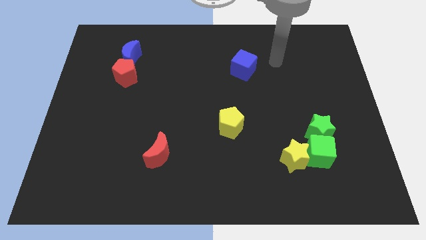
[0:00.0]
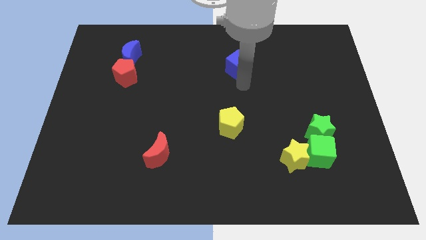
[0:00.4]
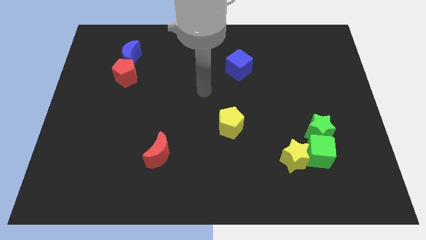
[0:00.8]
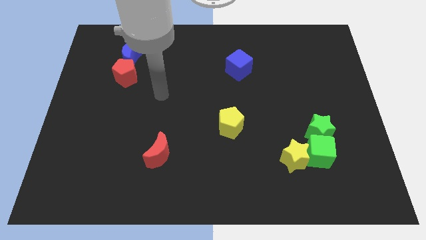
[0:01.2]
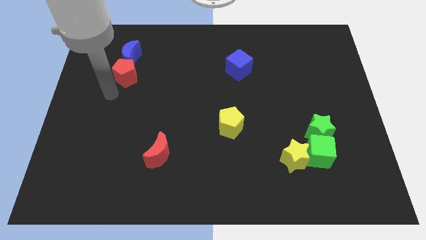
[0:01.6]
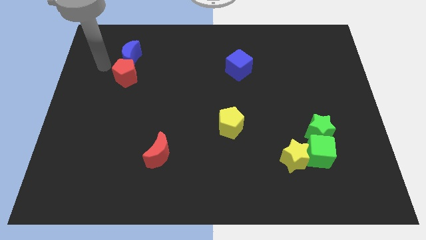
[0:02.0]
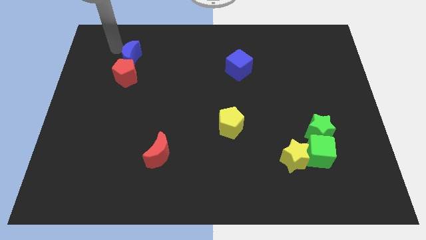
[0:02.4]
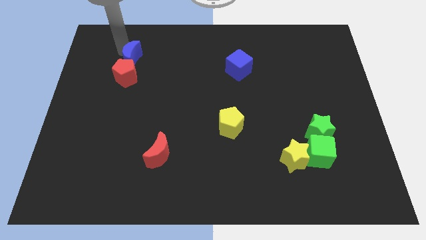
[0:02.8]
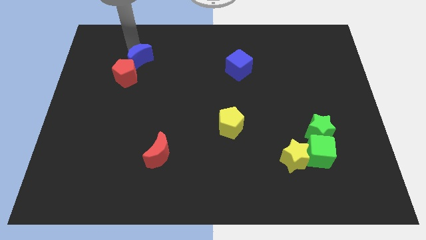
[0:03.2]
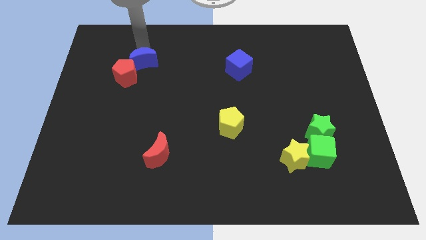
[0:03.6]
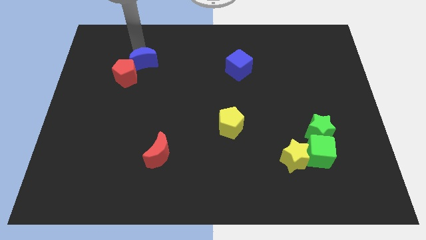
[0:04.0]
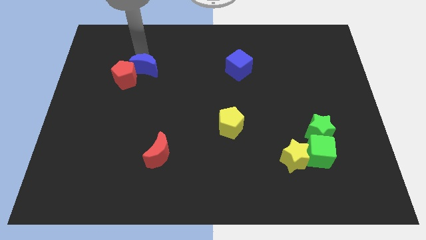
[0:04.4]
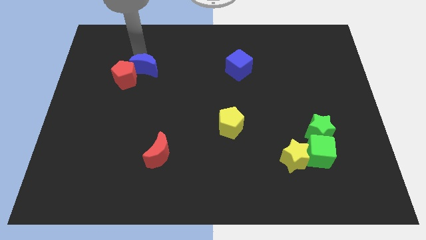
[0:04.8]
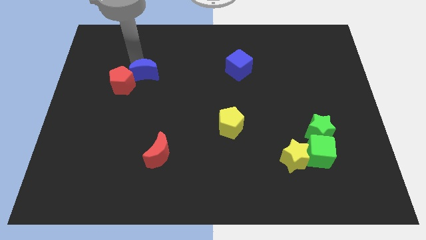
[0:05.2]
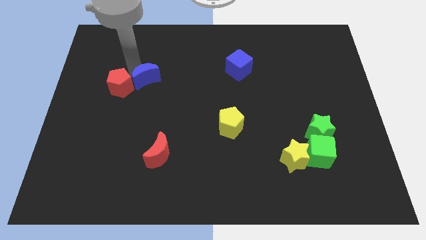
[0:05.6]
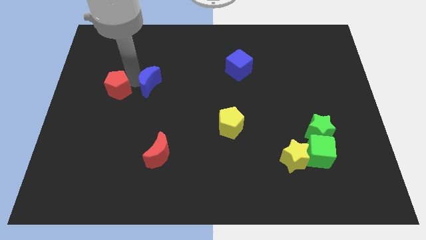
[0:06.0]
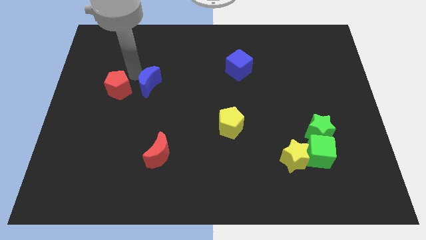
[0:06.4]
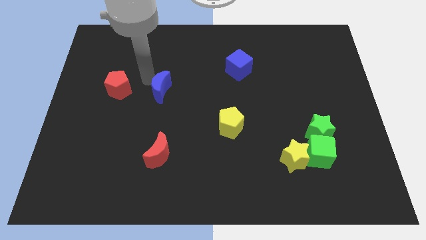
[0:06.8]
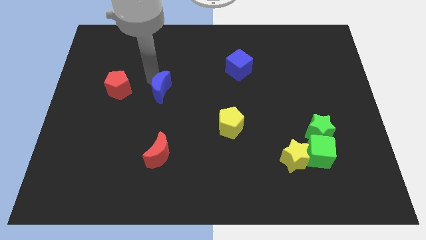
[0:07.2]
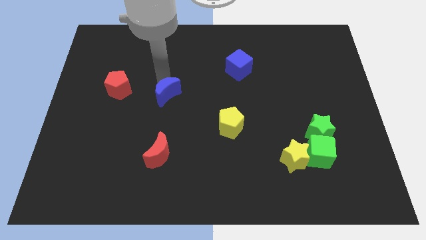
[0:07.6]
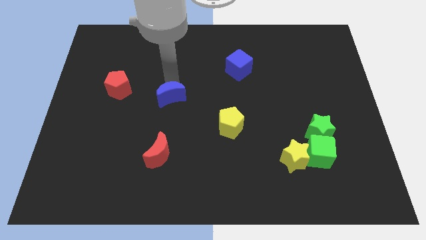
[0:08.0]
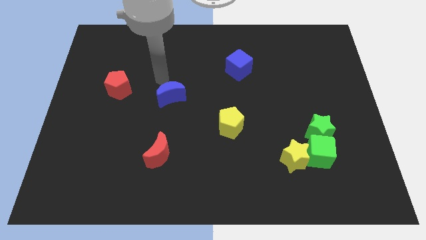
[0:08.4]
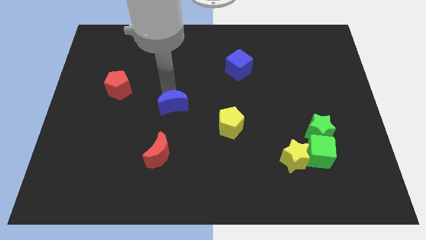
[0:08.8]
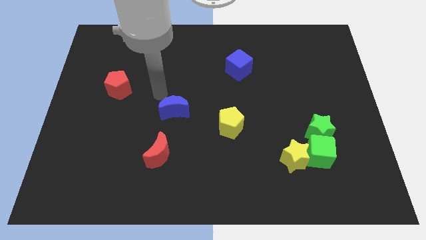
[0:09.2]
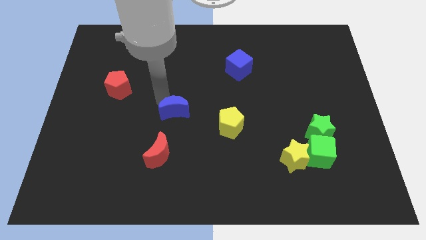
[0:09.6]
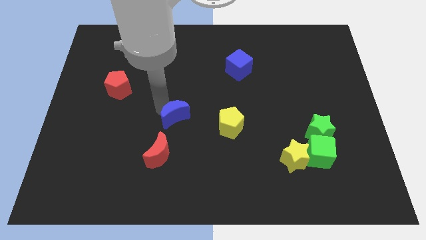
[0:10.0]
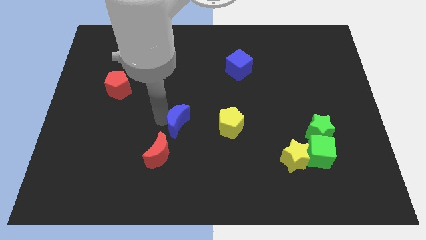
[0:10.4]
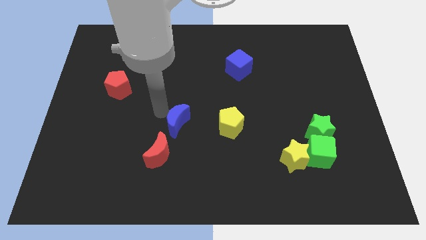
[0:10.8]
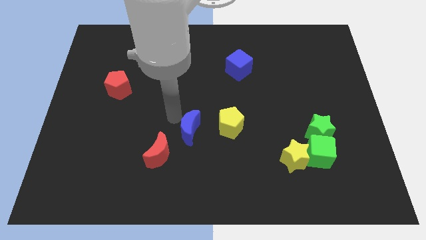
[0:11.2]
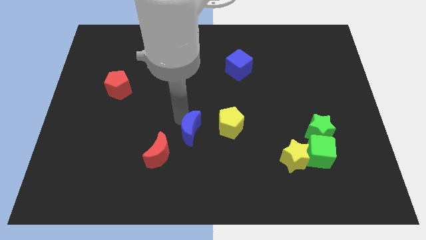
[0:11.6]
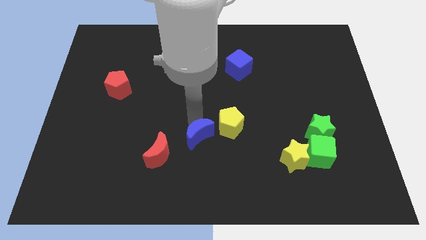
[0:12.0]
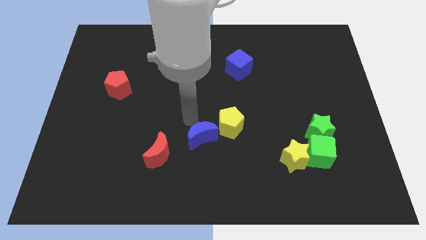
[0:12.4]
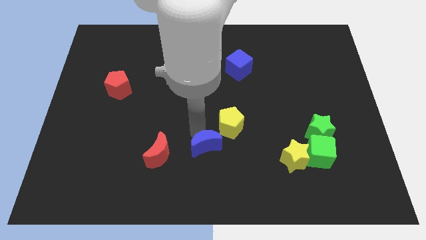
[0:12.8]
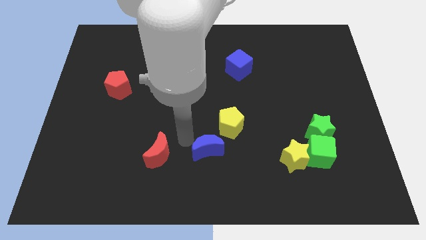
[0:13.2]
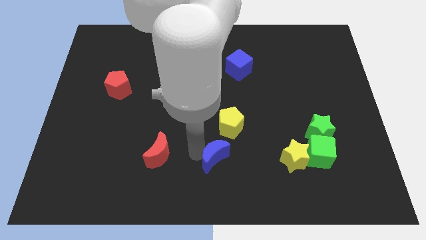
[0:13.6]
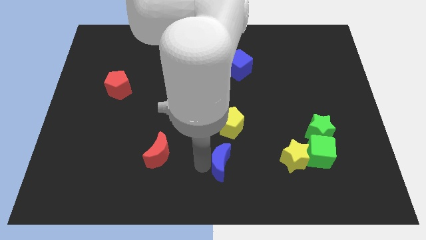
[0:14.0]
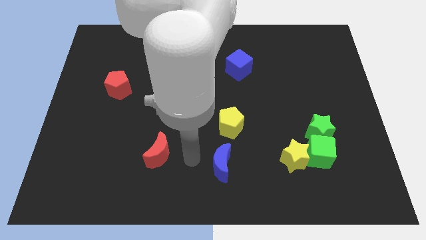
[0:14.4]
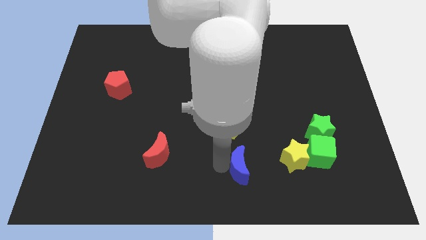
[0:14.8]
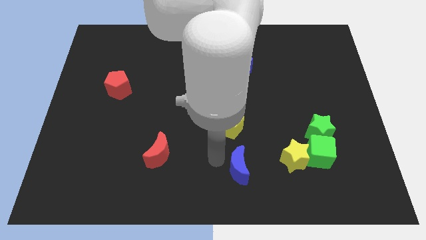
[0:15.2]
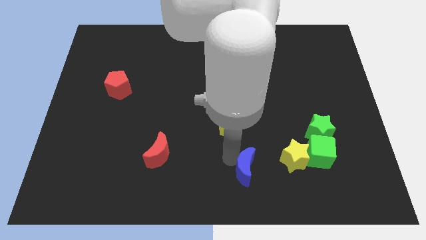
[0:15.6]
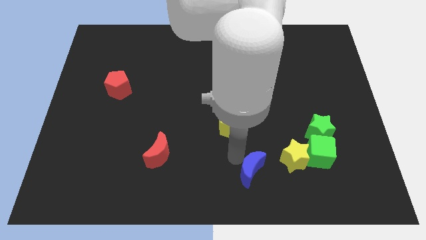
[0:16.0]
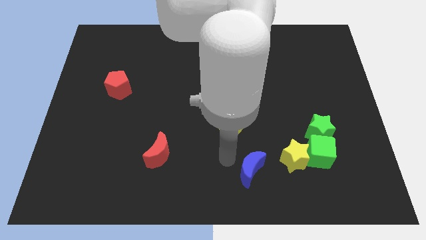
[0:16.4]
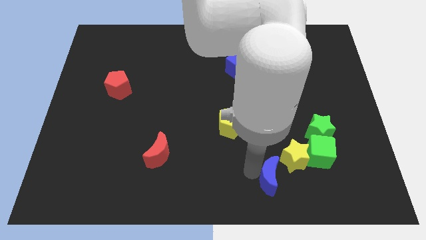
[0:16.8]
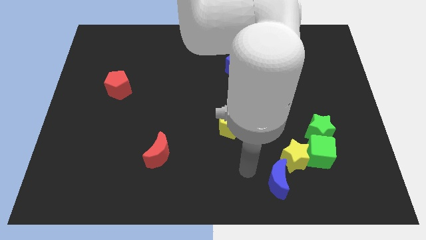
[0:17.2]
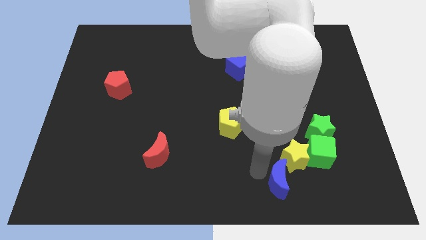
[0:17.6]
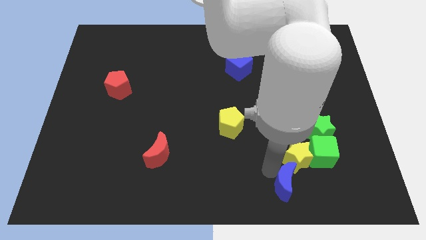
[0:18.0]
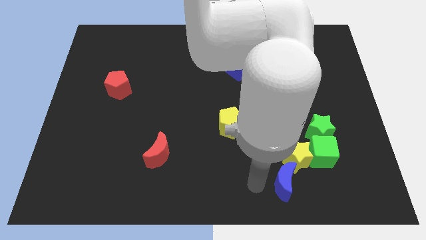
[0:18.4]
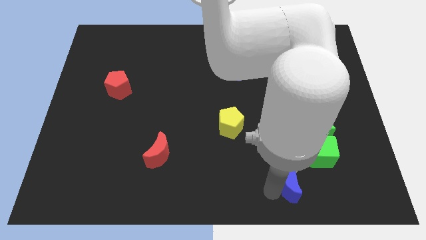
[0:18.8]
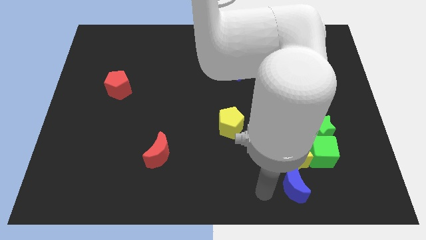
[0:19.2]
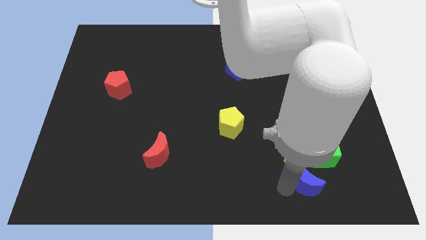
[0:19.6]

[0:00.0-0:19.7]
put the blue moon to the bottom right of the yellow star

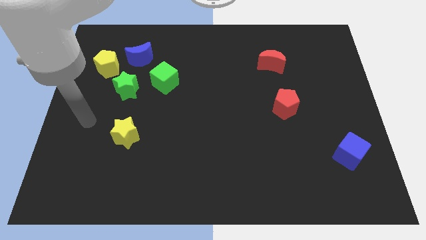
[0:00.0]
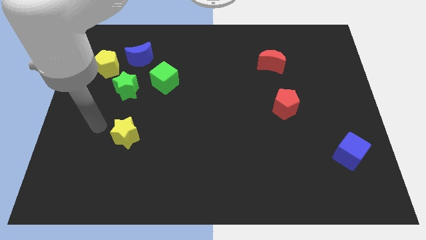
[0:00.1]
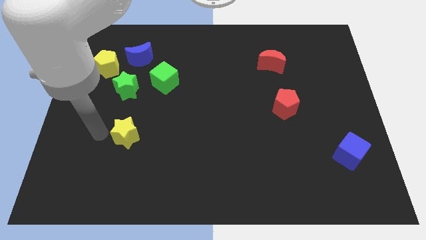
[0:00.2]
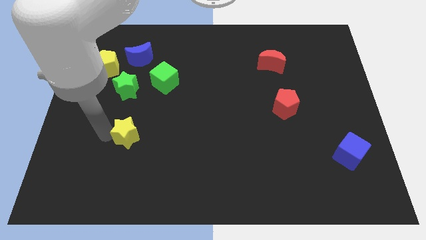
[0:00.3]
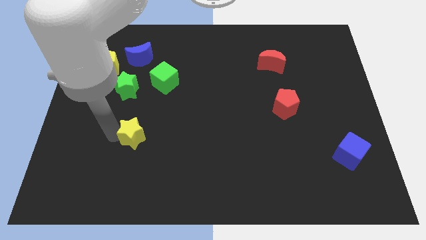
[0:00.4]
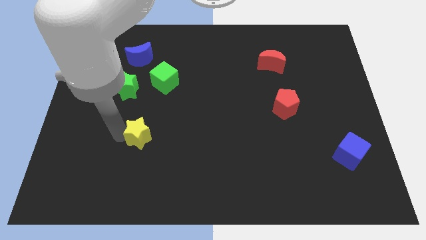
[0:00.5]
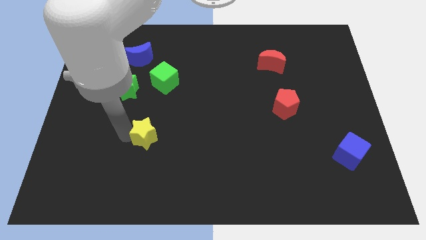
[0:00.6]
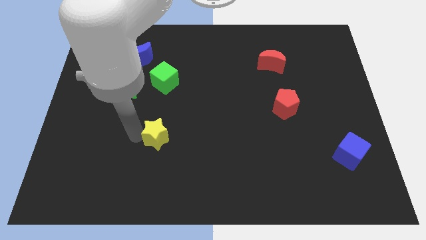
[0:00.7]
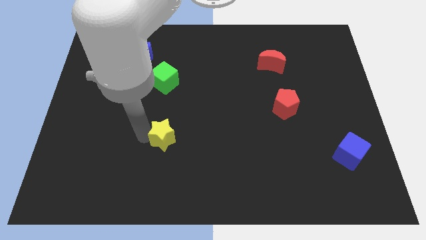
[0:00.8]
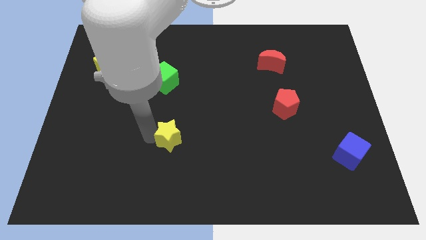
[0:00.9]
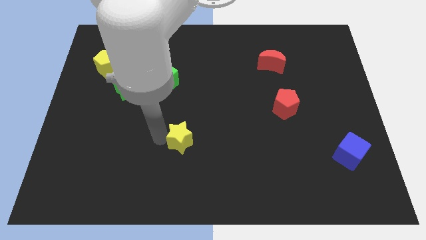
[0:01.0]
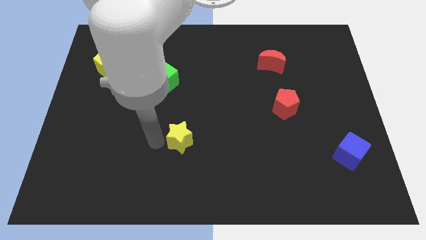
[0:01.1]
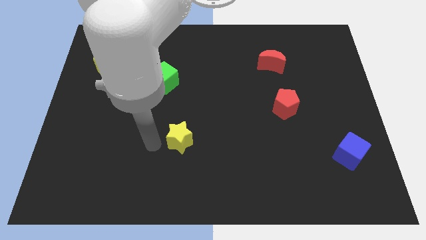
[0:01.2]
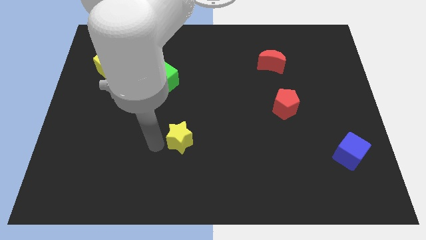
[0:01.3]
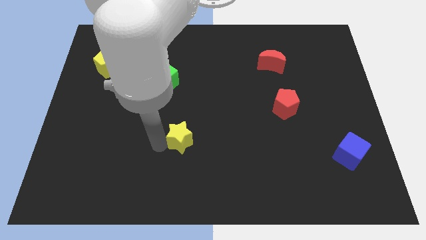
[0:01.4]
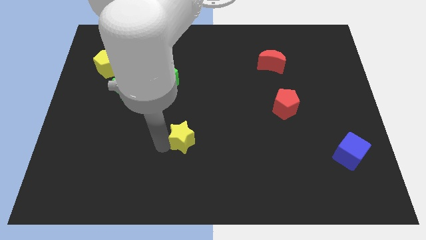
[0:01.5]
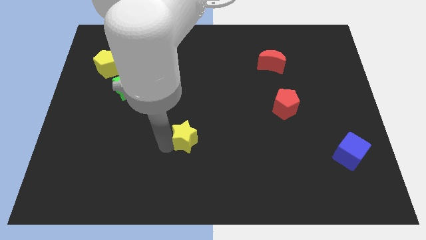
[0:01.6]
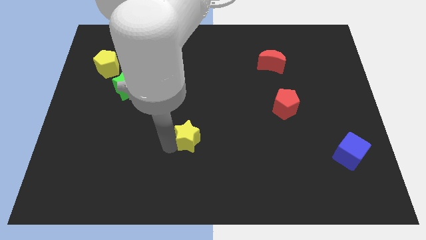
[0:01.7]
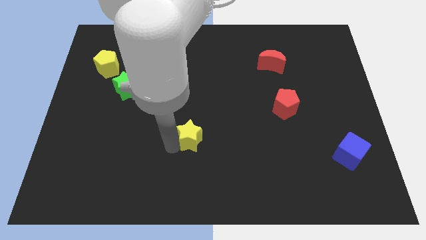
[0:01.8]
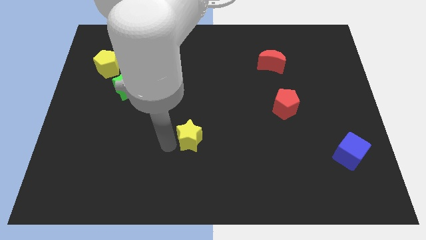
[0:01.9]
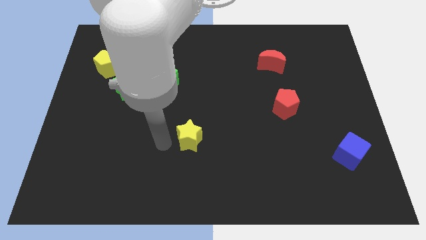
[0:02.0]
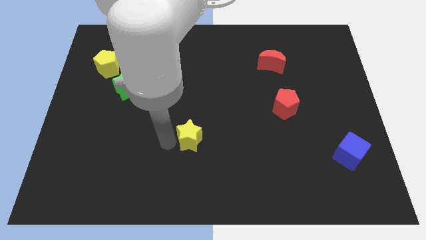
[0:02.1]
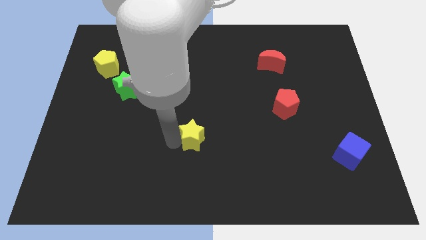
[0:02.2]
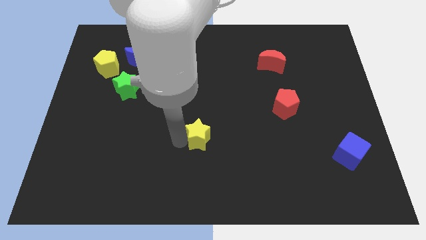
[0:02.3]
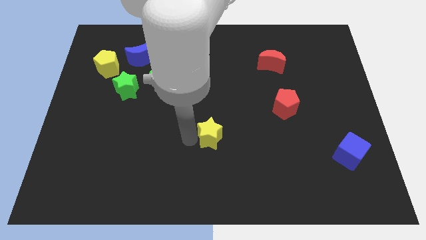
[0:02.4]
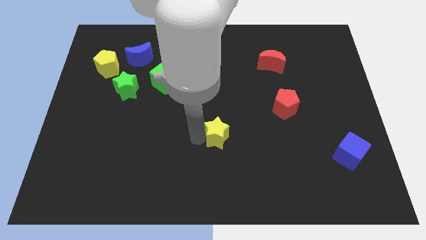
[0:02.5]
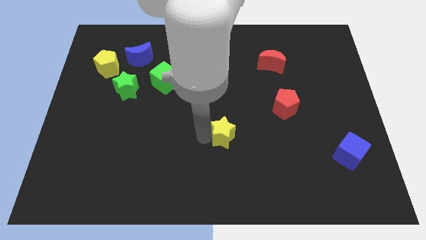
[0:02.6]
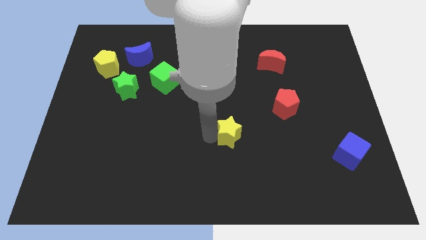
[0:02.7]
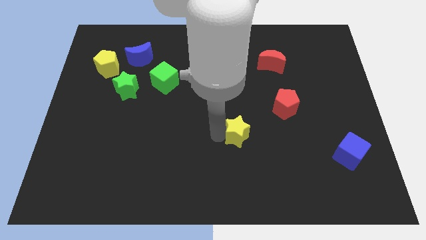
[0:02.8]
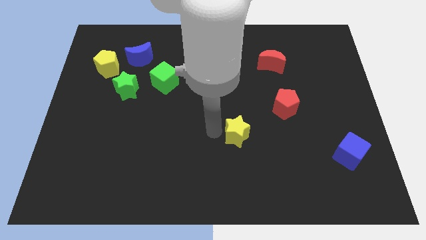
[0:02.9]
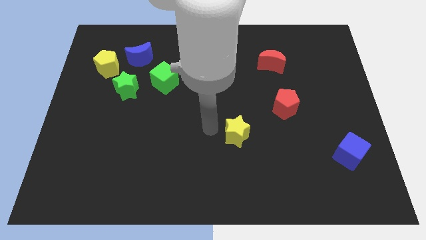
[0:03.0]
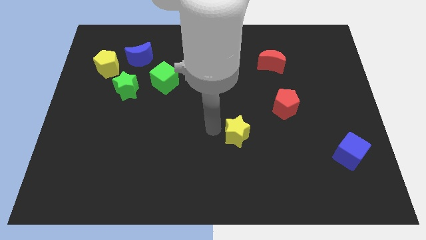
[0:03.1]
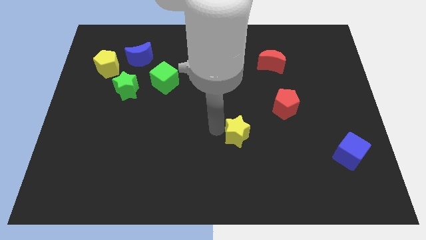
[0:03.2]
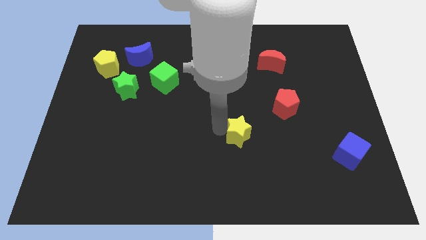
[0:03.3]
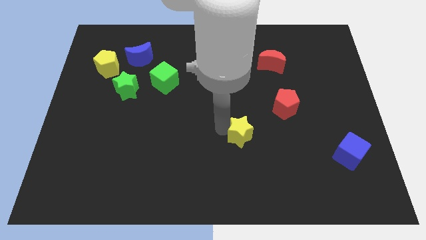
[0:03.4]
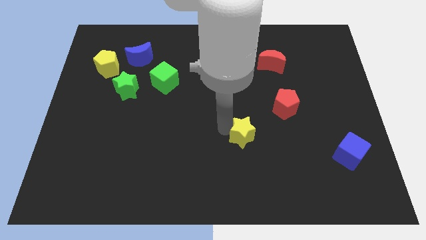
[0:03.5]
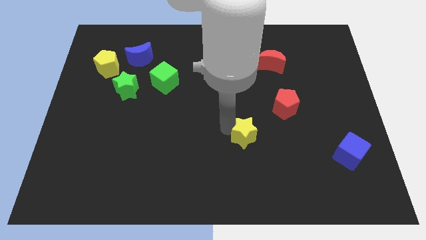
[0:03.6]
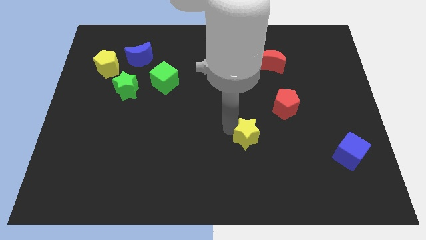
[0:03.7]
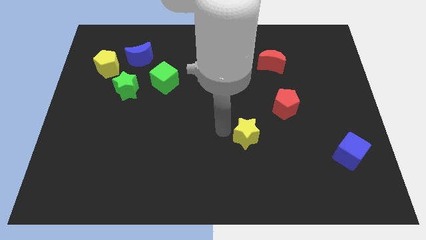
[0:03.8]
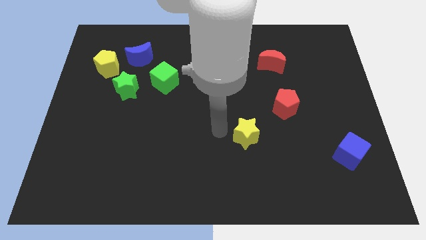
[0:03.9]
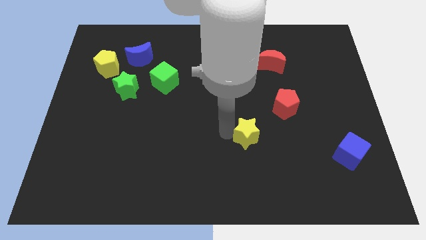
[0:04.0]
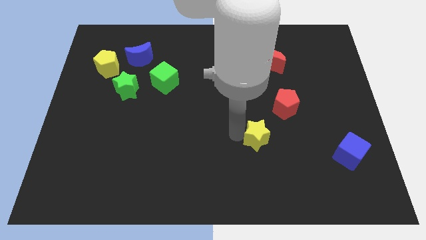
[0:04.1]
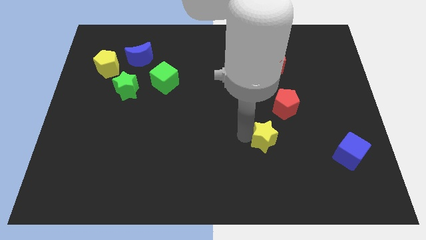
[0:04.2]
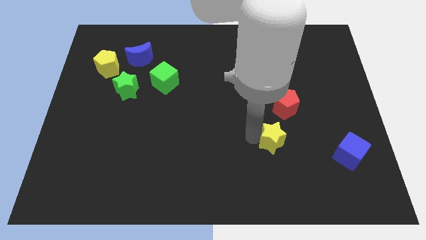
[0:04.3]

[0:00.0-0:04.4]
slide the yellow star below the red pentagon
